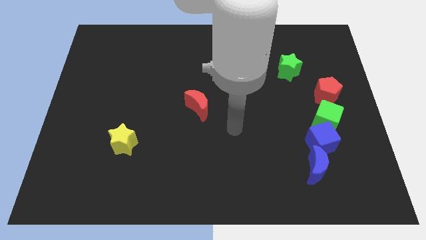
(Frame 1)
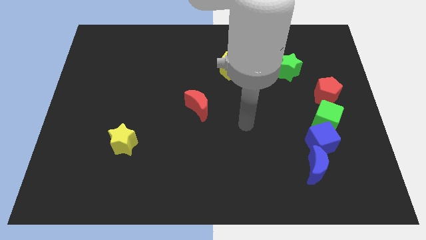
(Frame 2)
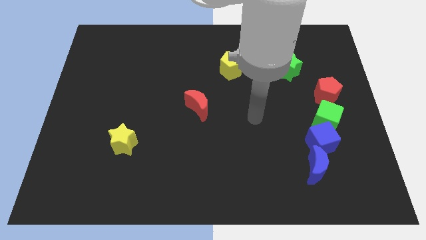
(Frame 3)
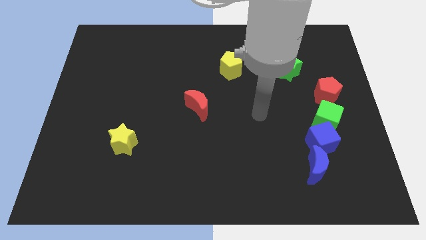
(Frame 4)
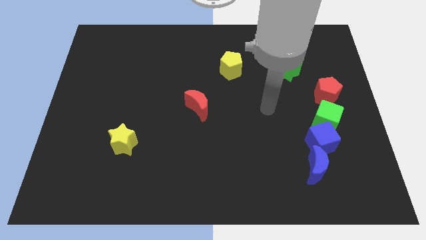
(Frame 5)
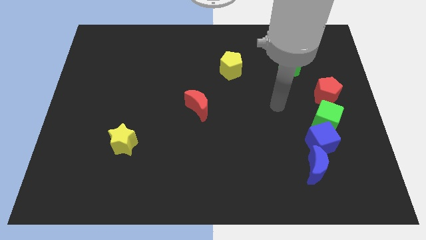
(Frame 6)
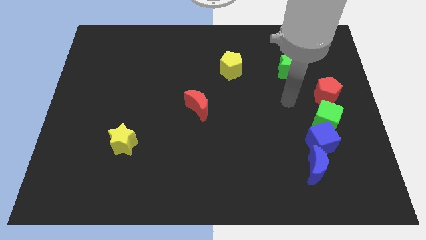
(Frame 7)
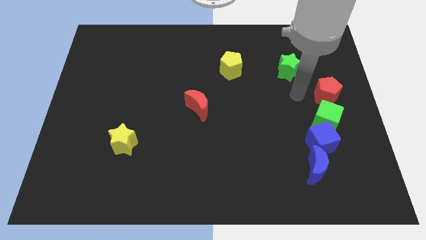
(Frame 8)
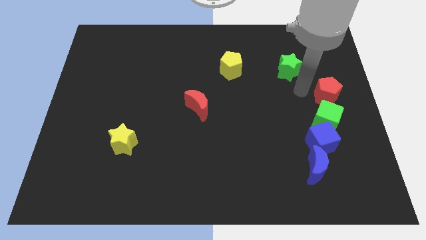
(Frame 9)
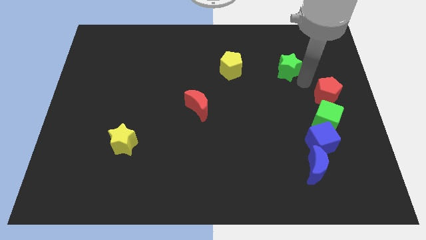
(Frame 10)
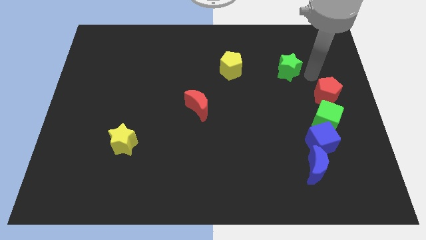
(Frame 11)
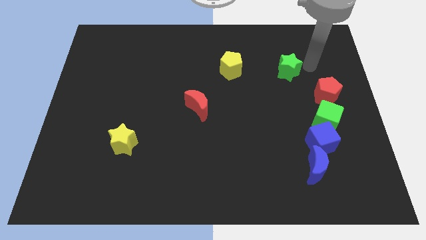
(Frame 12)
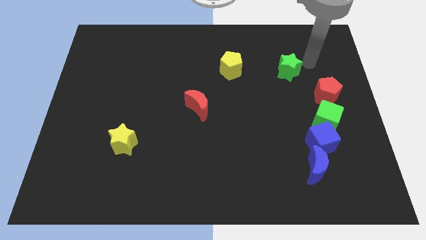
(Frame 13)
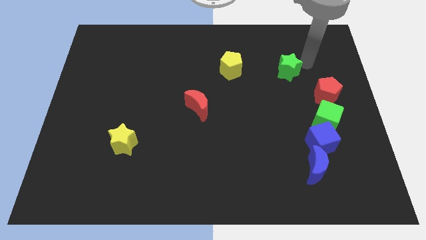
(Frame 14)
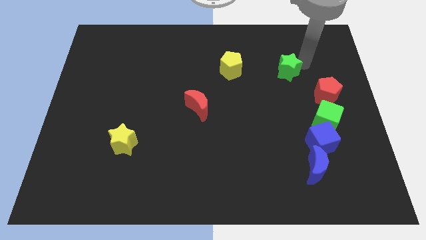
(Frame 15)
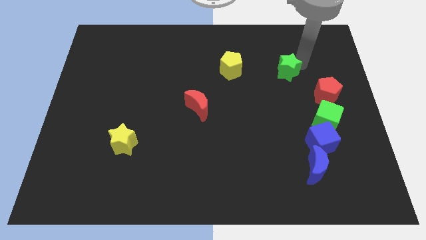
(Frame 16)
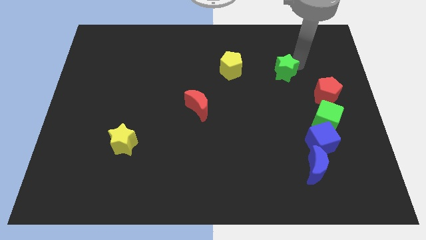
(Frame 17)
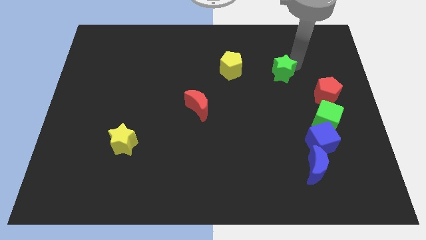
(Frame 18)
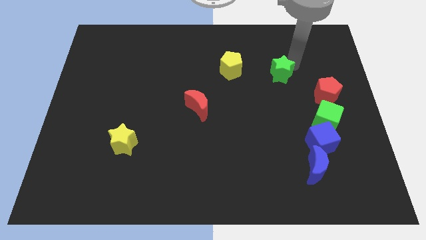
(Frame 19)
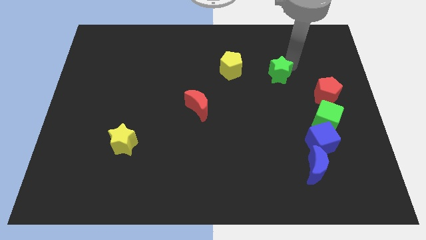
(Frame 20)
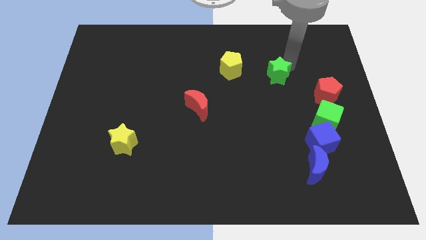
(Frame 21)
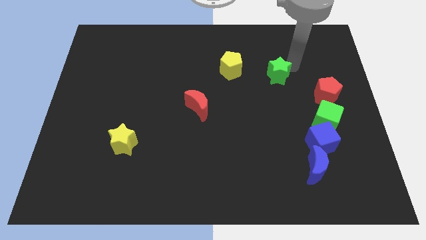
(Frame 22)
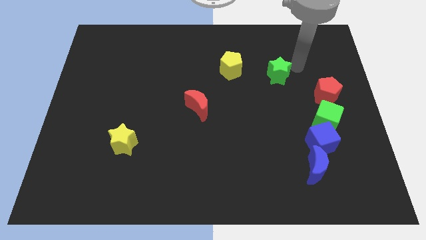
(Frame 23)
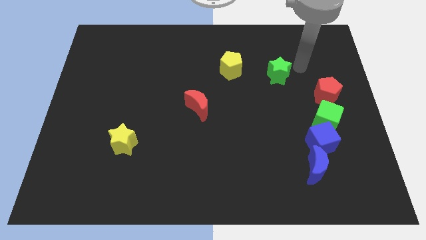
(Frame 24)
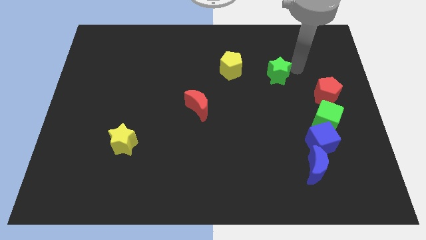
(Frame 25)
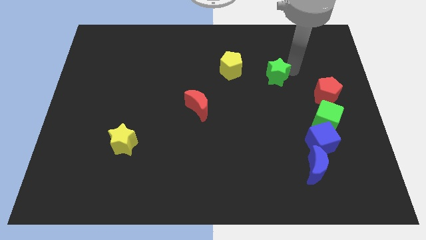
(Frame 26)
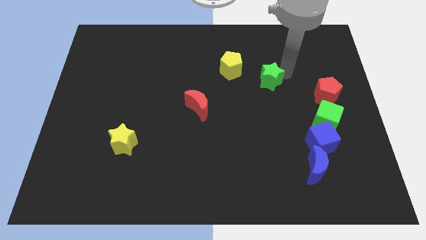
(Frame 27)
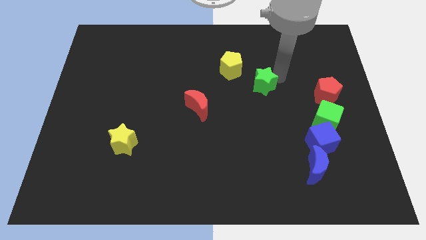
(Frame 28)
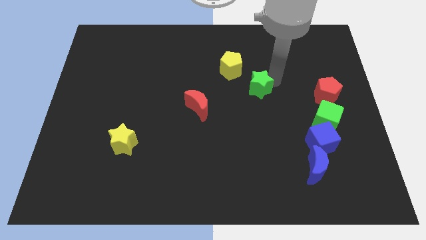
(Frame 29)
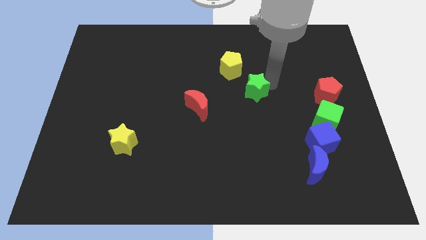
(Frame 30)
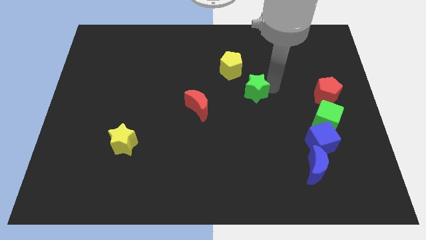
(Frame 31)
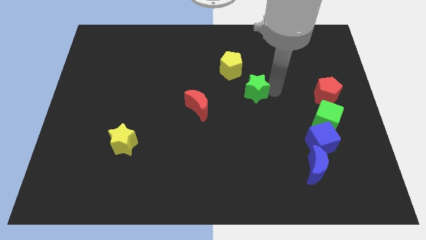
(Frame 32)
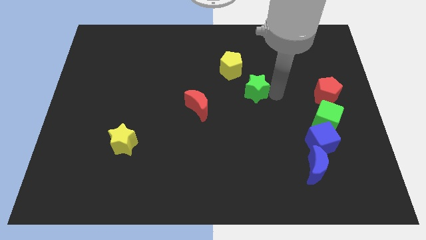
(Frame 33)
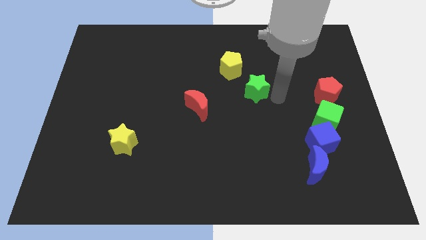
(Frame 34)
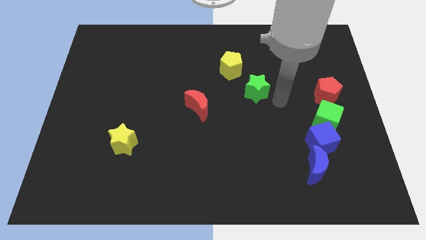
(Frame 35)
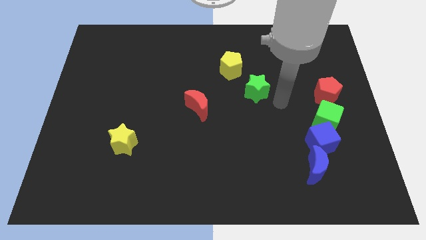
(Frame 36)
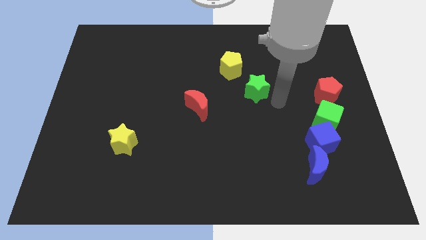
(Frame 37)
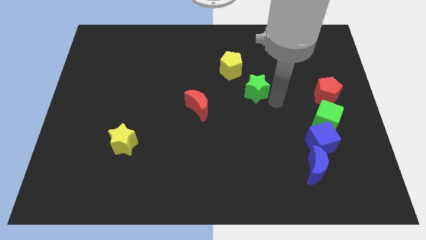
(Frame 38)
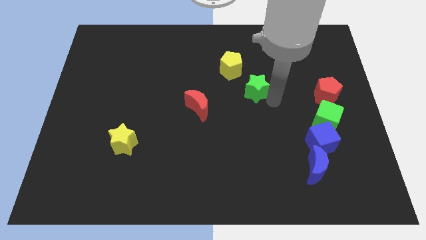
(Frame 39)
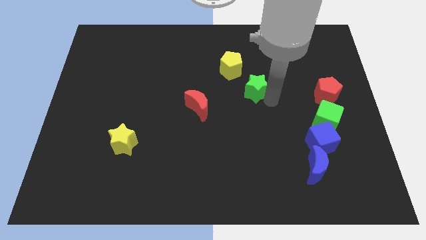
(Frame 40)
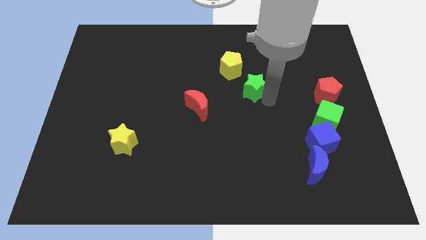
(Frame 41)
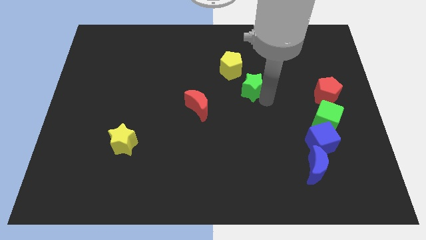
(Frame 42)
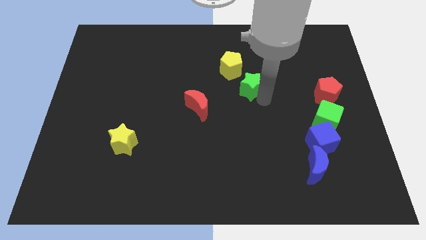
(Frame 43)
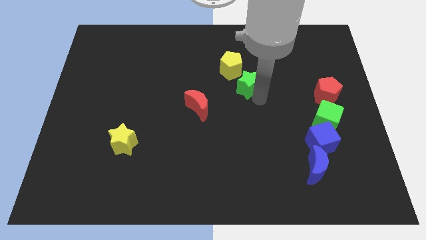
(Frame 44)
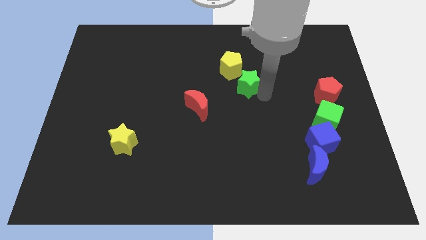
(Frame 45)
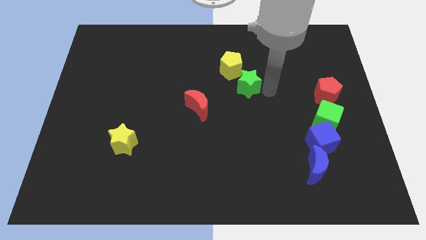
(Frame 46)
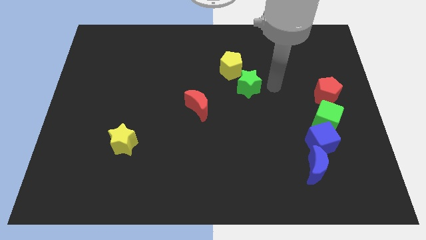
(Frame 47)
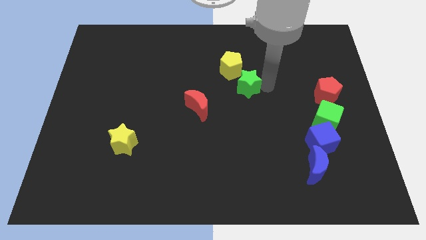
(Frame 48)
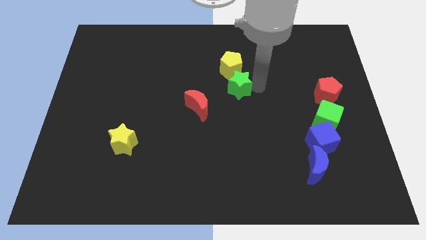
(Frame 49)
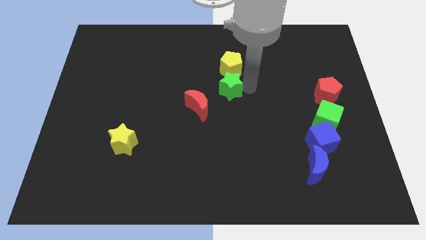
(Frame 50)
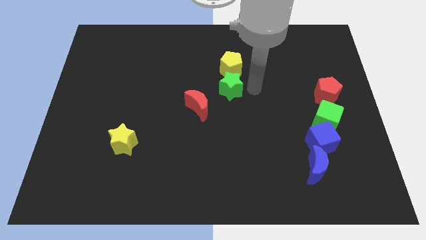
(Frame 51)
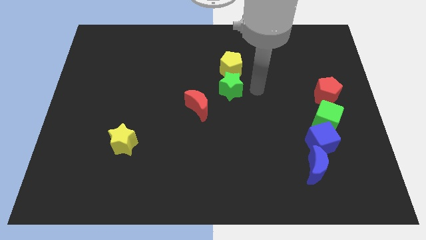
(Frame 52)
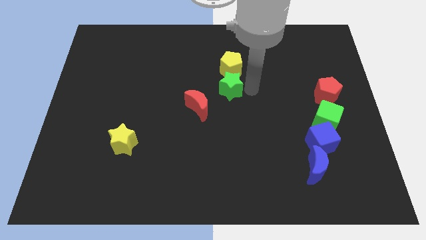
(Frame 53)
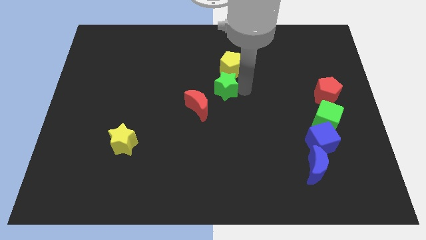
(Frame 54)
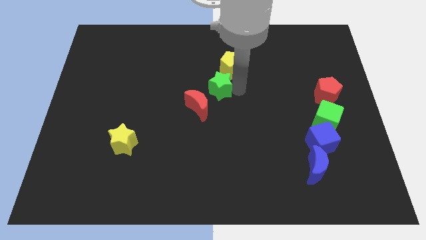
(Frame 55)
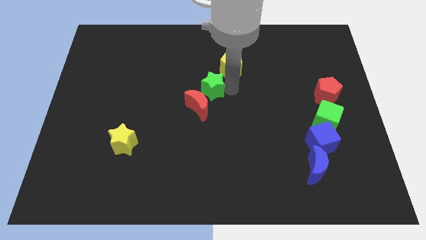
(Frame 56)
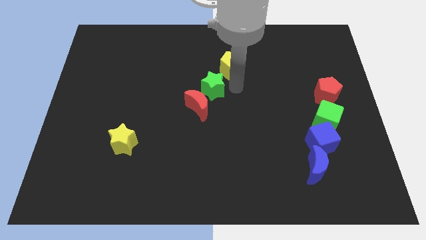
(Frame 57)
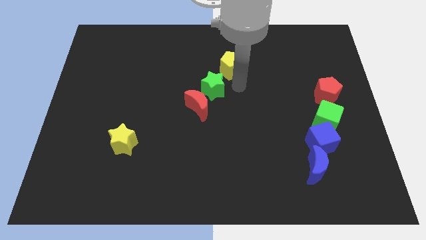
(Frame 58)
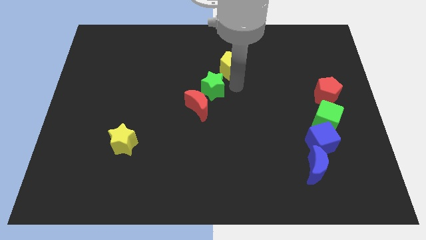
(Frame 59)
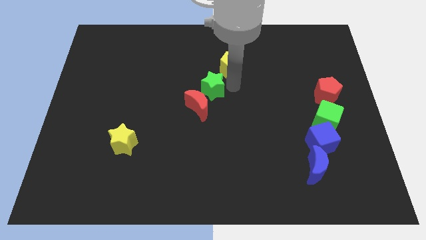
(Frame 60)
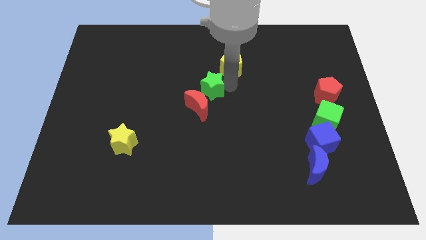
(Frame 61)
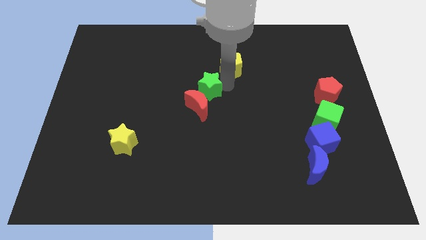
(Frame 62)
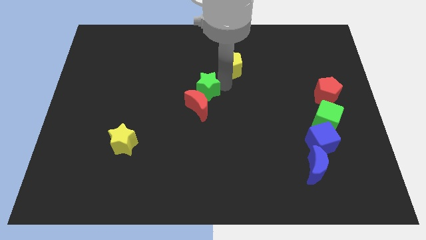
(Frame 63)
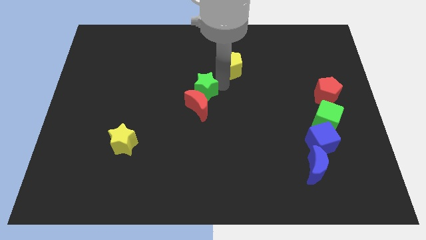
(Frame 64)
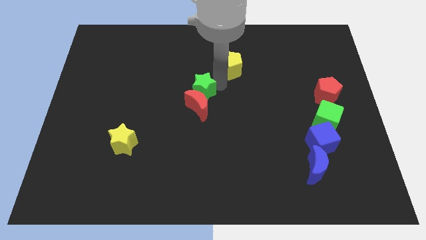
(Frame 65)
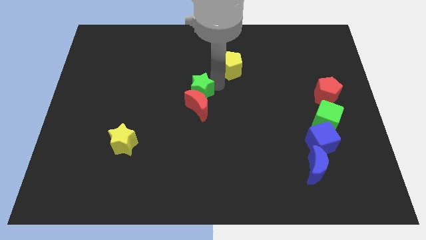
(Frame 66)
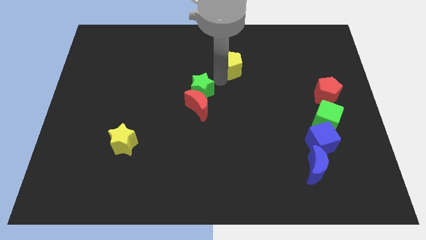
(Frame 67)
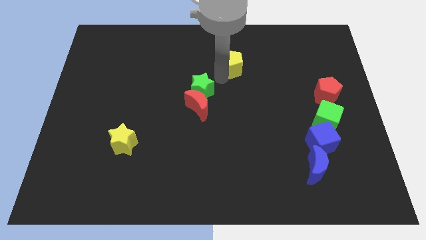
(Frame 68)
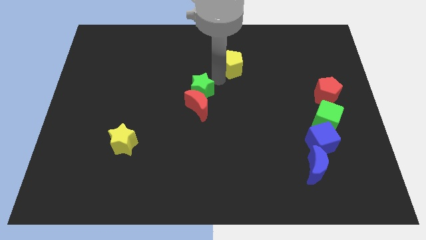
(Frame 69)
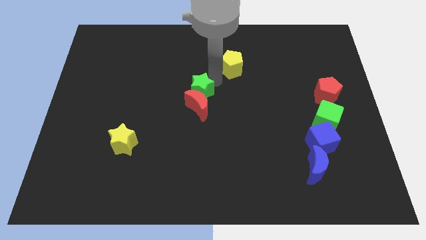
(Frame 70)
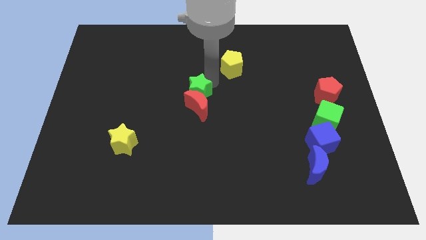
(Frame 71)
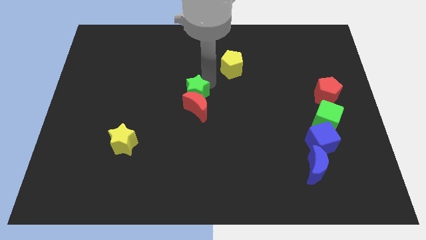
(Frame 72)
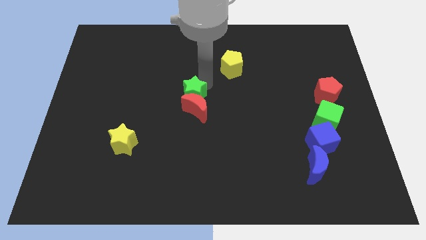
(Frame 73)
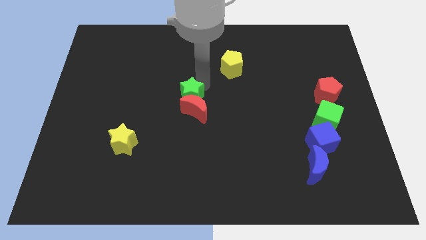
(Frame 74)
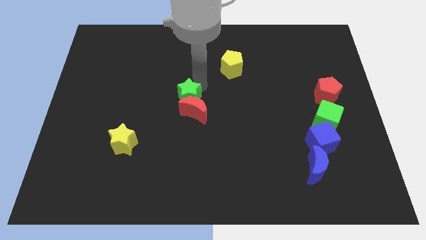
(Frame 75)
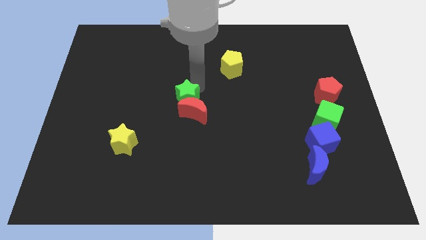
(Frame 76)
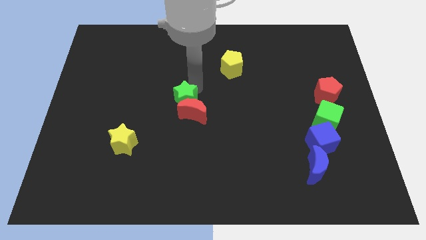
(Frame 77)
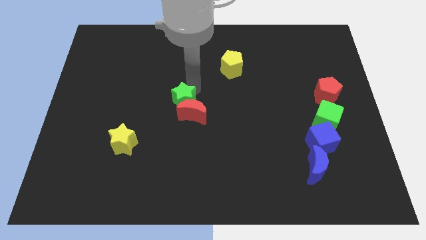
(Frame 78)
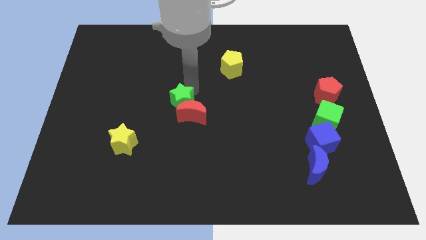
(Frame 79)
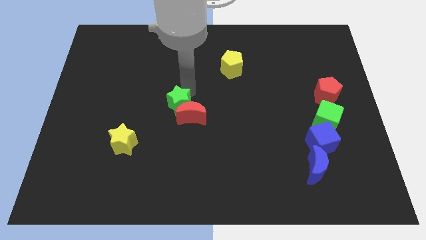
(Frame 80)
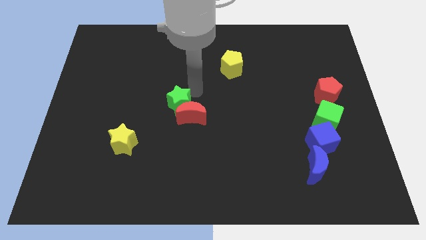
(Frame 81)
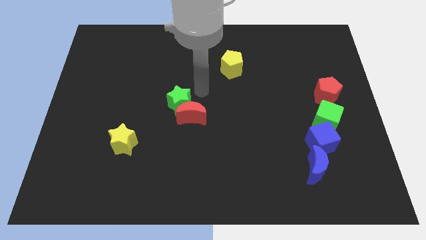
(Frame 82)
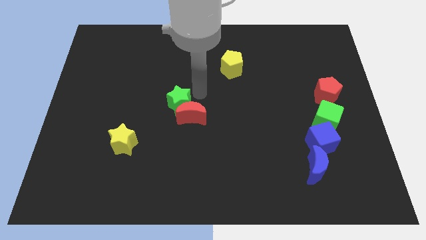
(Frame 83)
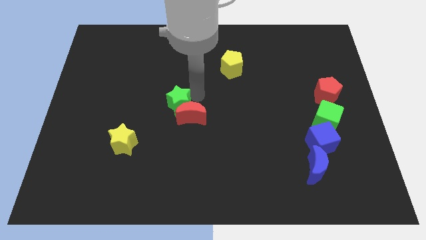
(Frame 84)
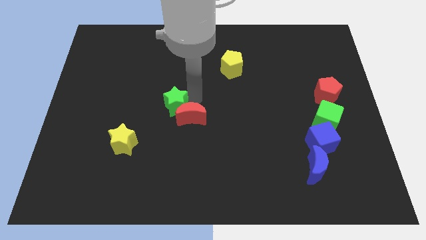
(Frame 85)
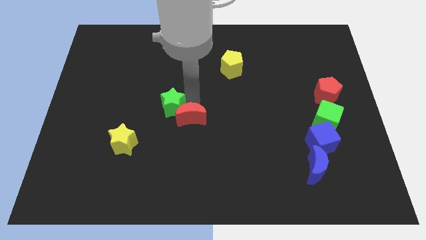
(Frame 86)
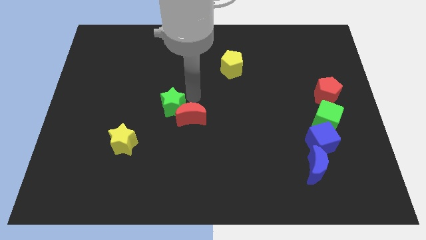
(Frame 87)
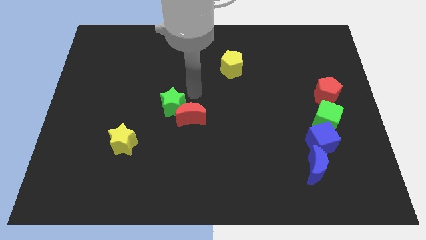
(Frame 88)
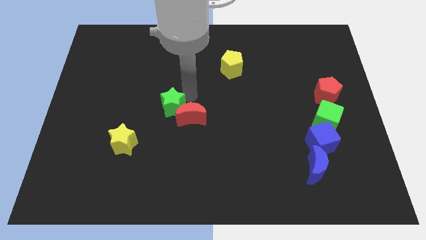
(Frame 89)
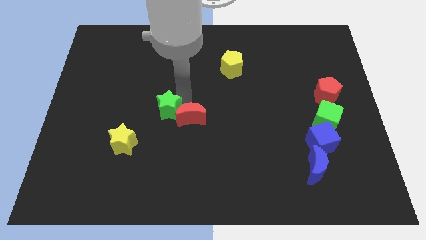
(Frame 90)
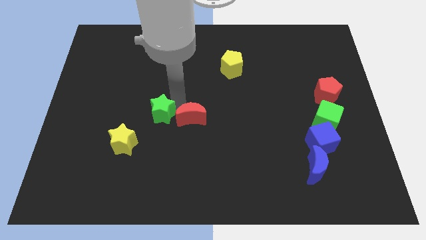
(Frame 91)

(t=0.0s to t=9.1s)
put the green star to the top right side of the yellow star
